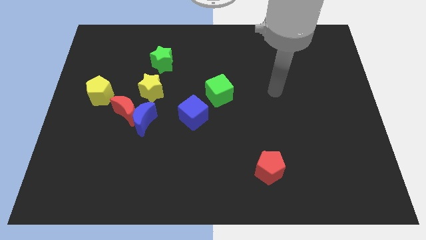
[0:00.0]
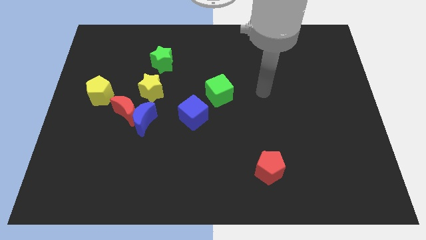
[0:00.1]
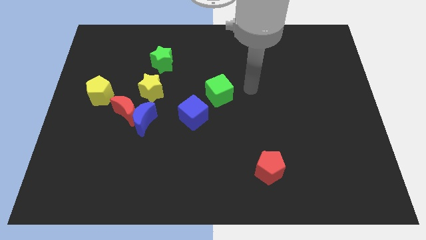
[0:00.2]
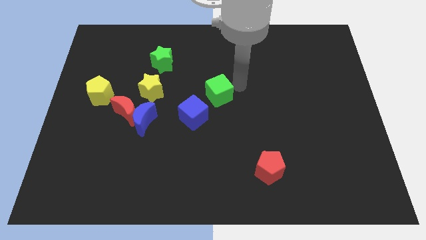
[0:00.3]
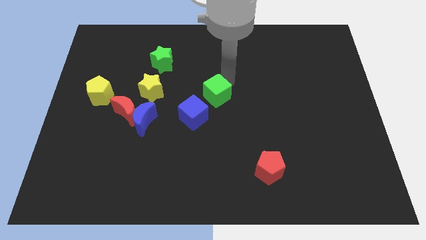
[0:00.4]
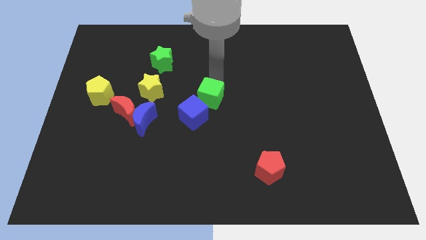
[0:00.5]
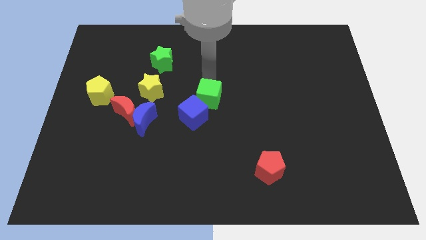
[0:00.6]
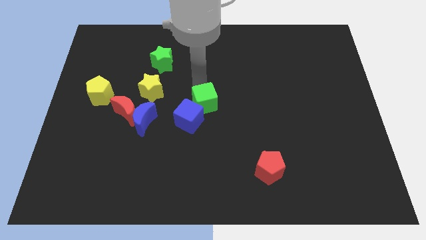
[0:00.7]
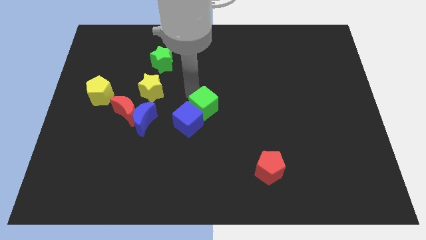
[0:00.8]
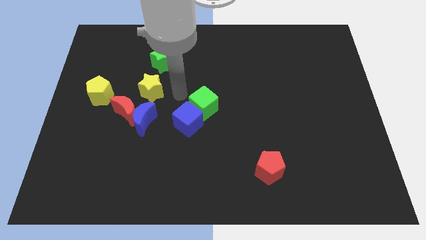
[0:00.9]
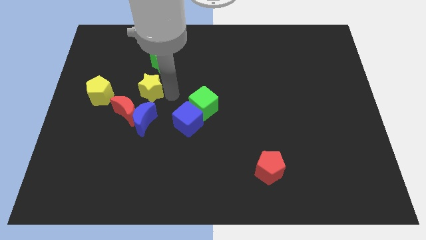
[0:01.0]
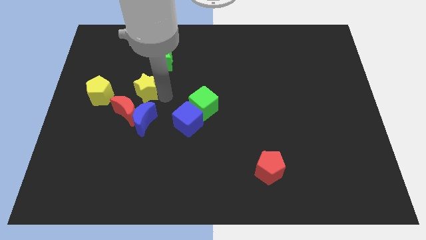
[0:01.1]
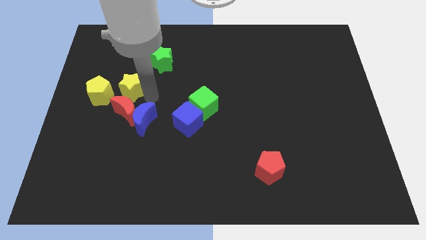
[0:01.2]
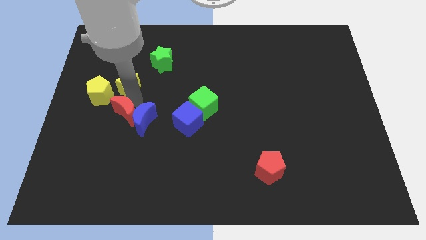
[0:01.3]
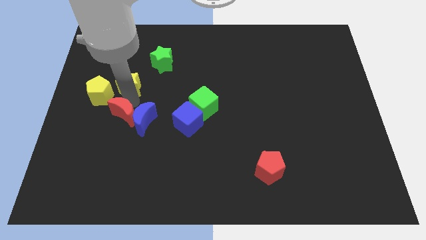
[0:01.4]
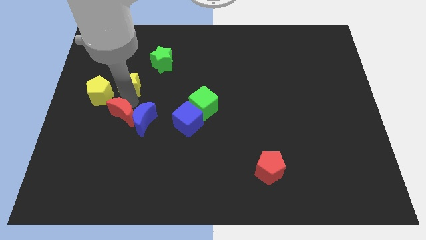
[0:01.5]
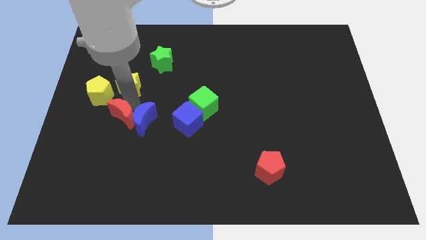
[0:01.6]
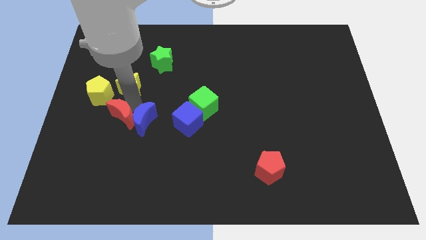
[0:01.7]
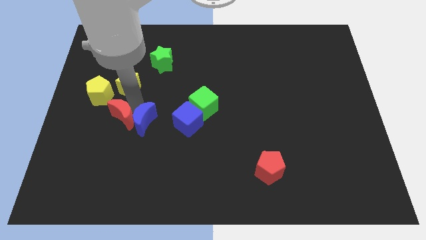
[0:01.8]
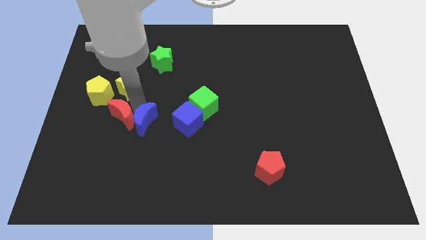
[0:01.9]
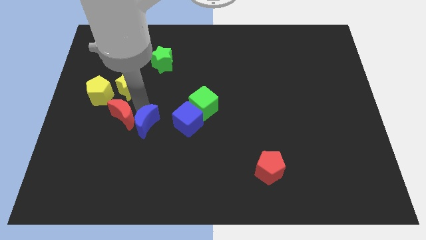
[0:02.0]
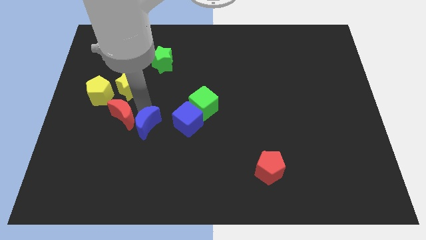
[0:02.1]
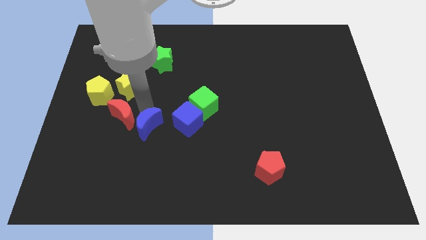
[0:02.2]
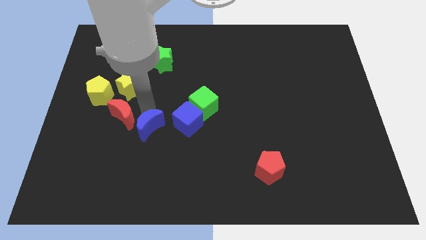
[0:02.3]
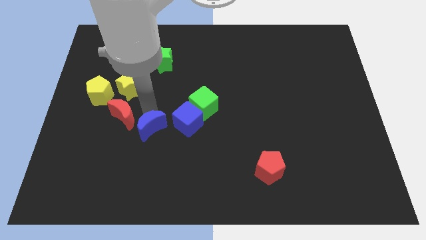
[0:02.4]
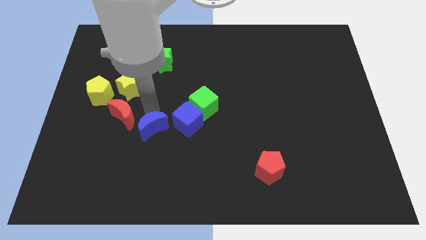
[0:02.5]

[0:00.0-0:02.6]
move the blue moon away from the red moon and yellow star

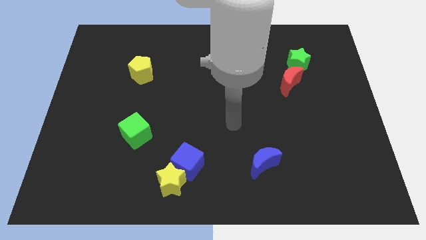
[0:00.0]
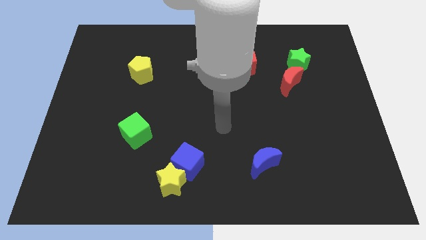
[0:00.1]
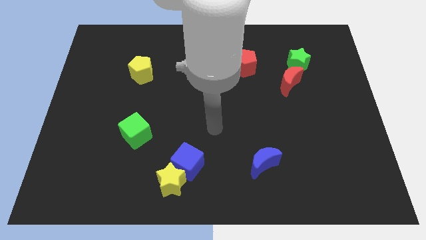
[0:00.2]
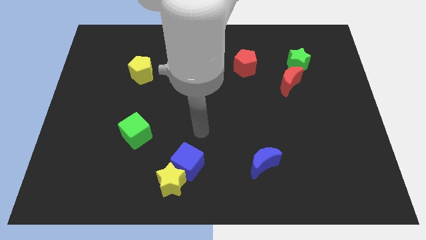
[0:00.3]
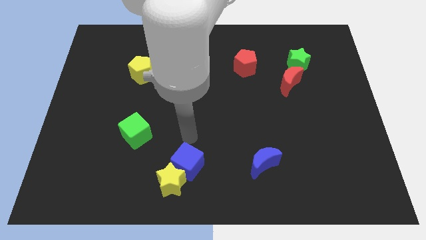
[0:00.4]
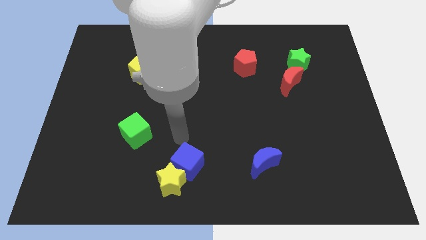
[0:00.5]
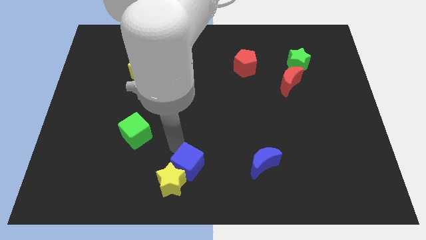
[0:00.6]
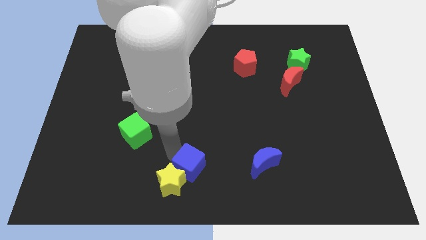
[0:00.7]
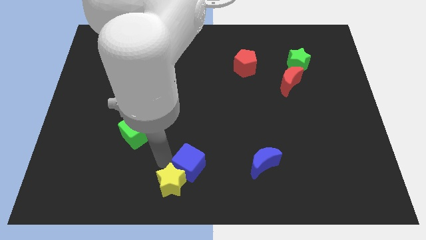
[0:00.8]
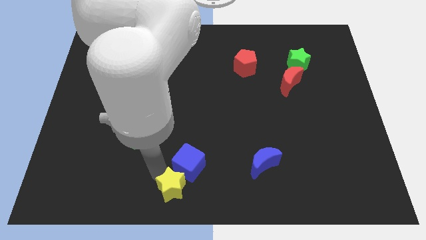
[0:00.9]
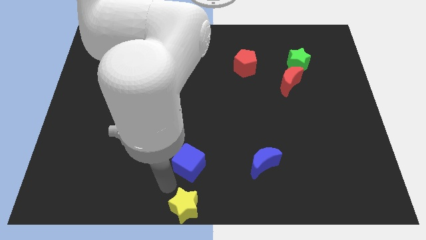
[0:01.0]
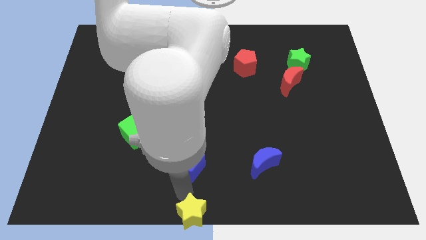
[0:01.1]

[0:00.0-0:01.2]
move the blue cube away from the yellow star

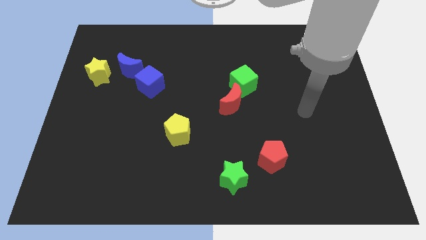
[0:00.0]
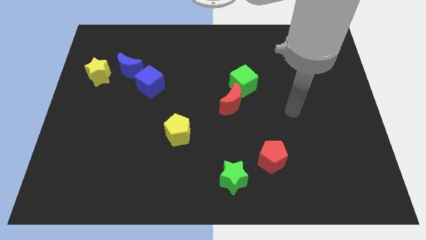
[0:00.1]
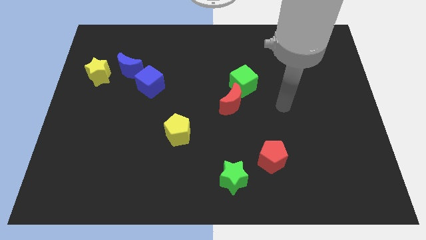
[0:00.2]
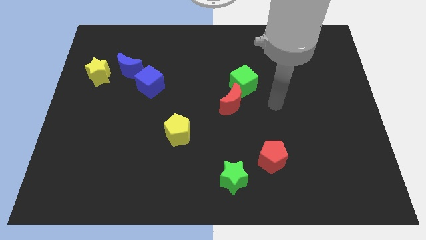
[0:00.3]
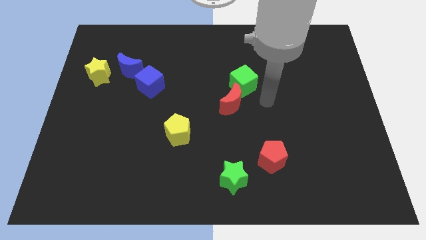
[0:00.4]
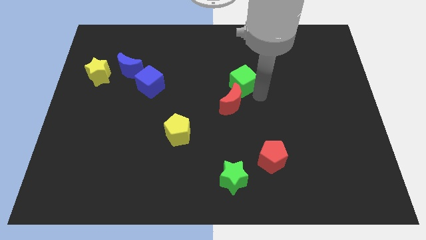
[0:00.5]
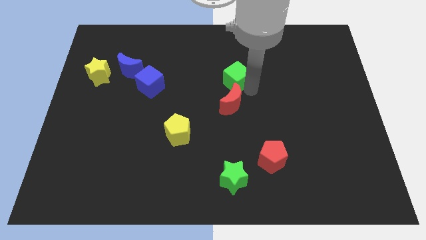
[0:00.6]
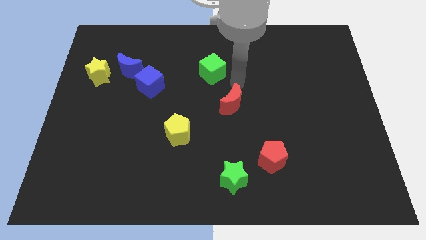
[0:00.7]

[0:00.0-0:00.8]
pull the red moon apart from the green cube

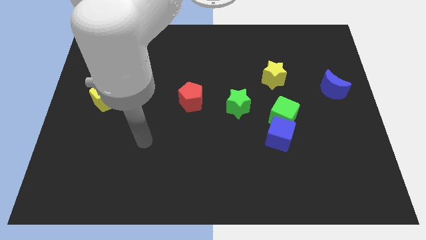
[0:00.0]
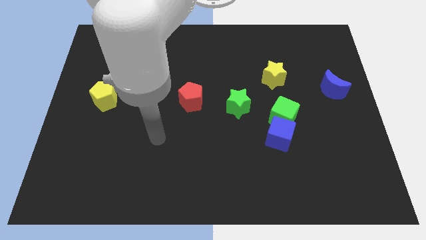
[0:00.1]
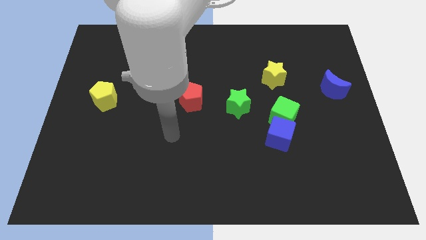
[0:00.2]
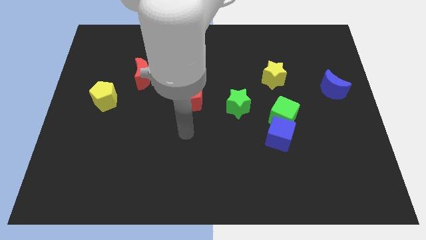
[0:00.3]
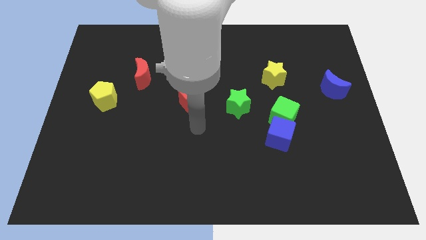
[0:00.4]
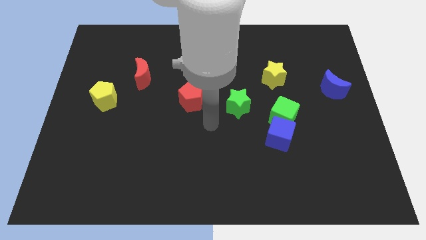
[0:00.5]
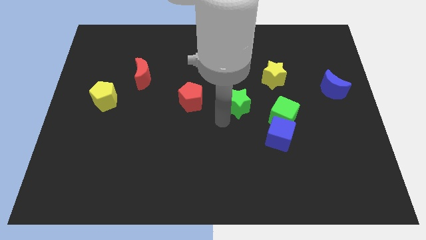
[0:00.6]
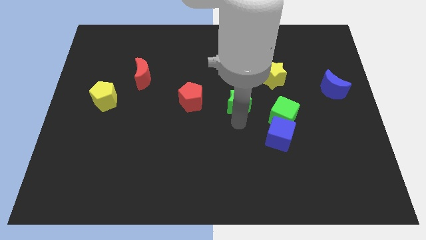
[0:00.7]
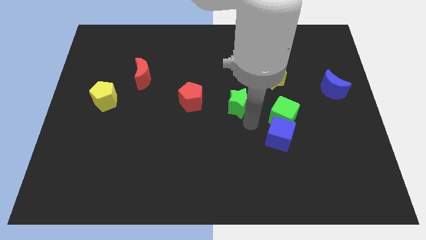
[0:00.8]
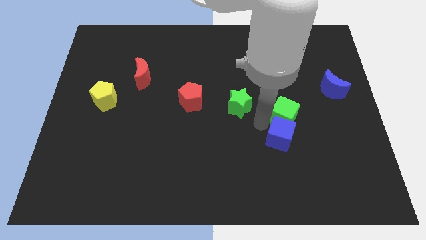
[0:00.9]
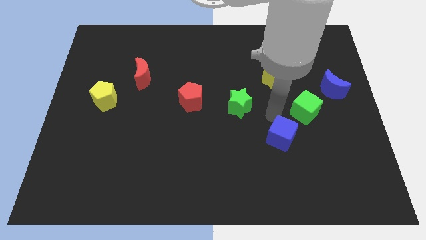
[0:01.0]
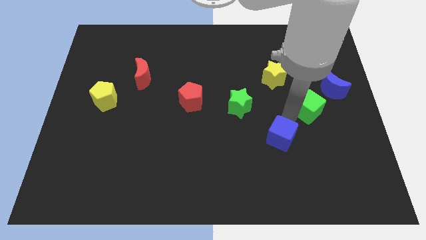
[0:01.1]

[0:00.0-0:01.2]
separate the blue cube from the green cube

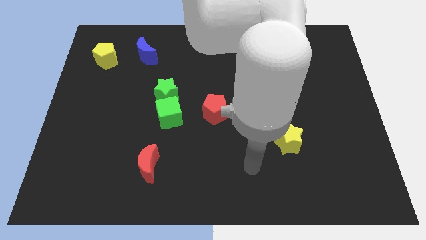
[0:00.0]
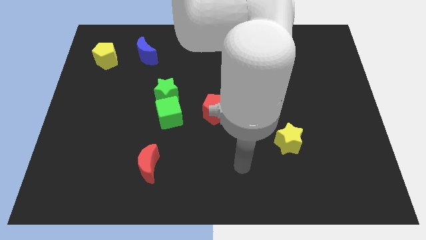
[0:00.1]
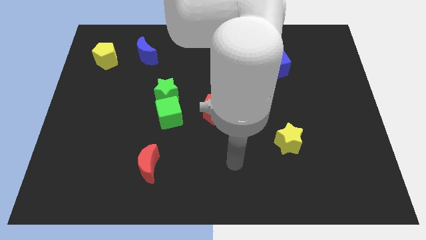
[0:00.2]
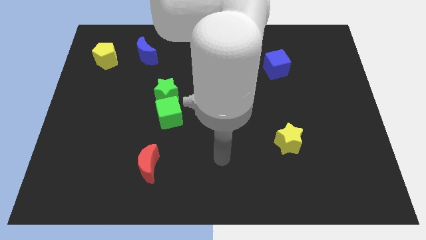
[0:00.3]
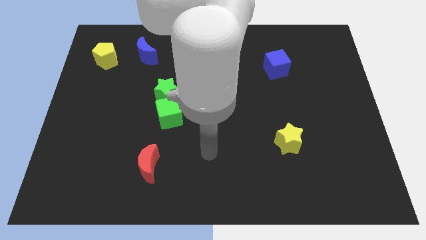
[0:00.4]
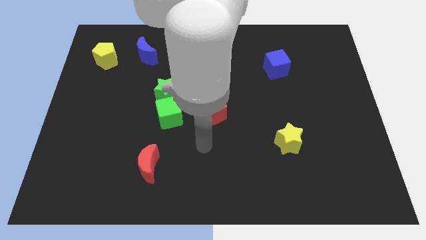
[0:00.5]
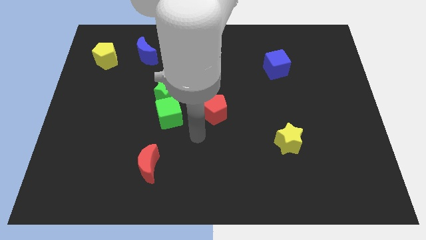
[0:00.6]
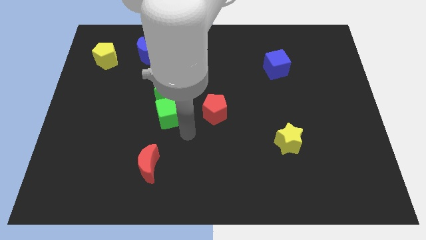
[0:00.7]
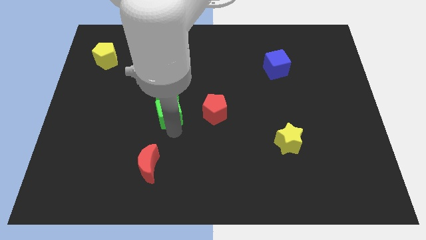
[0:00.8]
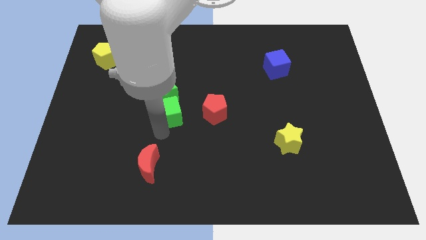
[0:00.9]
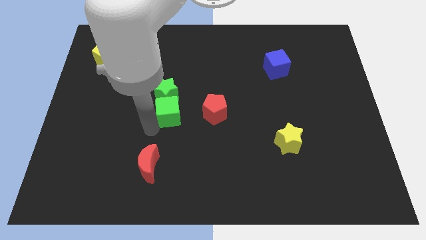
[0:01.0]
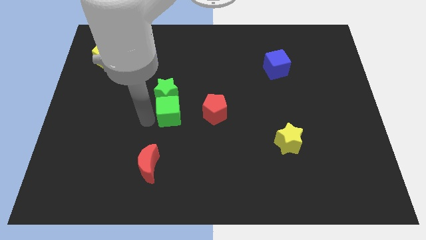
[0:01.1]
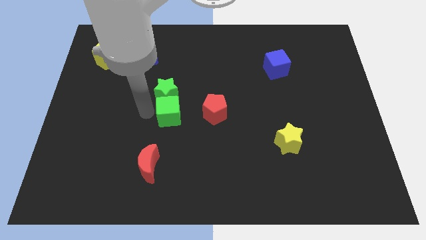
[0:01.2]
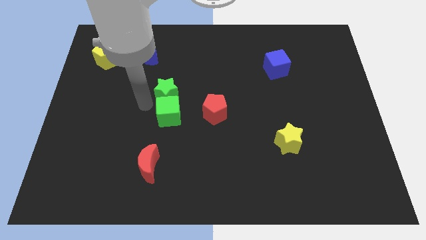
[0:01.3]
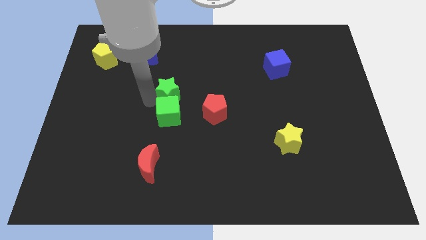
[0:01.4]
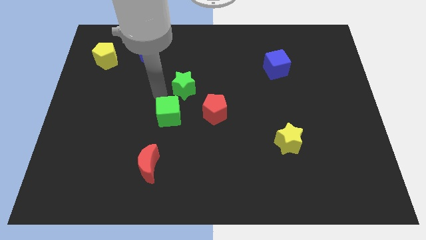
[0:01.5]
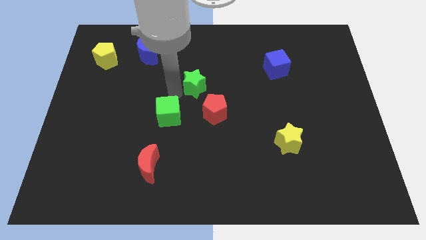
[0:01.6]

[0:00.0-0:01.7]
move the green cube away from the green star

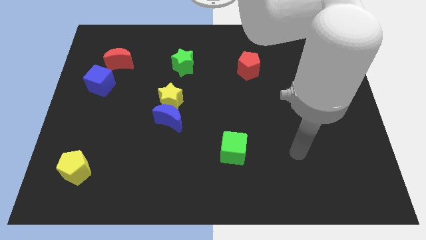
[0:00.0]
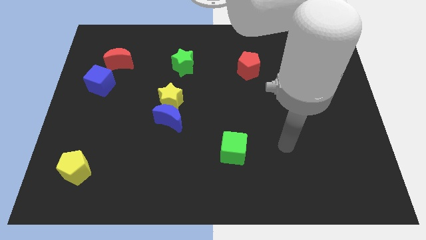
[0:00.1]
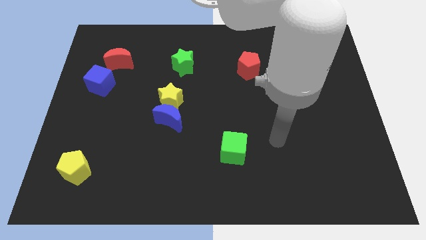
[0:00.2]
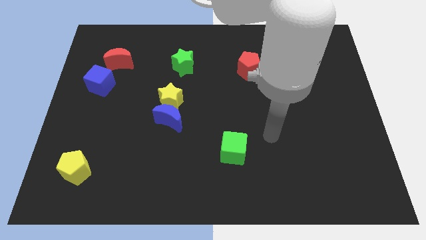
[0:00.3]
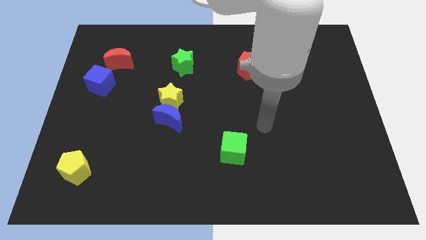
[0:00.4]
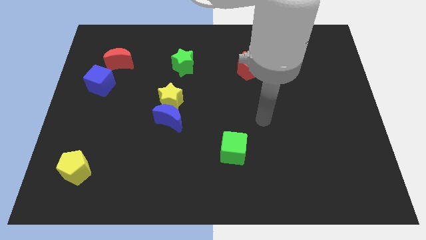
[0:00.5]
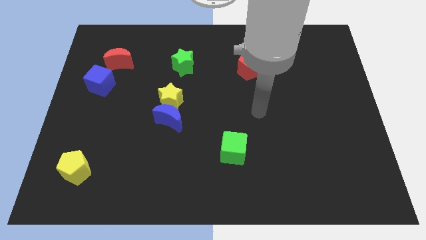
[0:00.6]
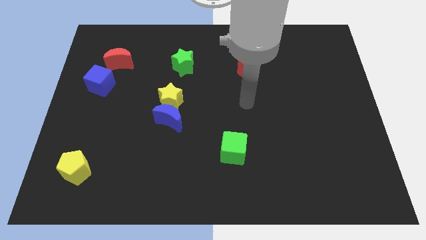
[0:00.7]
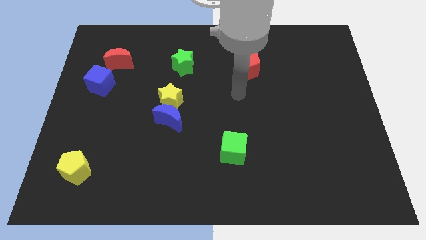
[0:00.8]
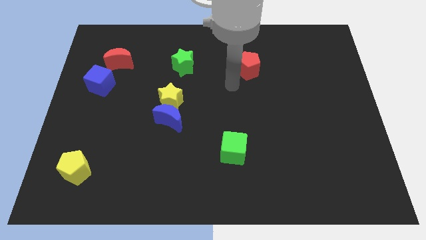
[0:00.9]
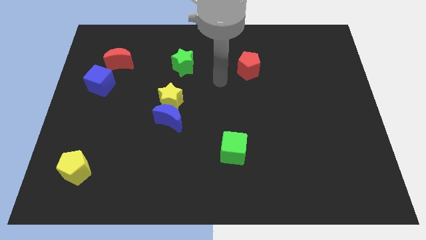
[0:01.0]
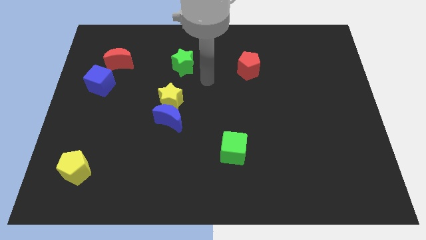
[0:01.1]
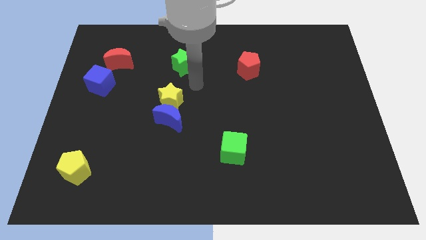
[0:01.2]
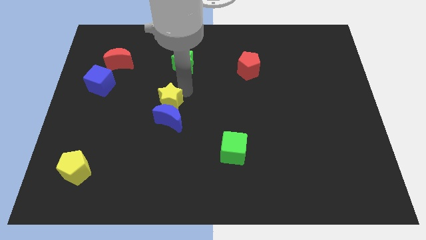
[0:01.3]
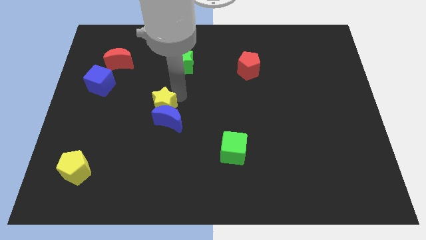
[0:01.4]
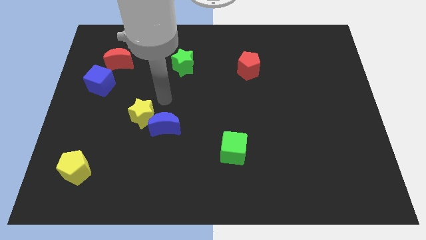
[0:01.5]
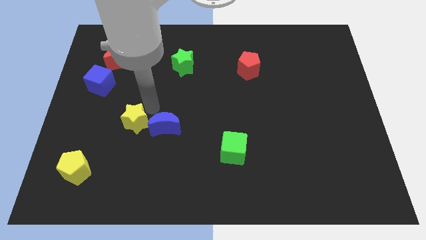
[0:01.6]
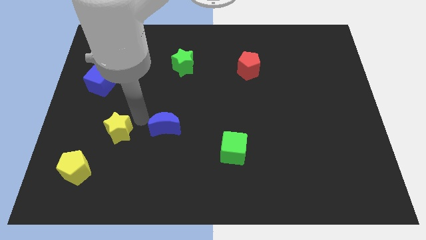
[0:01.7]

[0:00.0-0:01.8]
pull the blue moon apart from the yellow star
